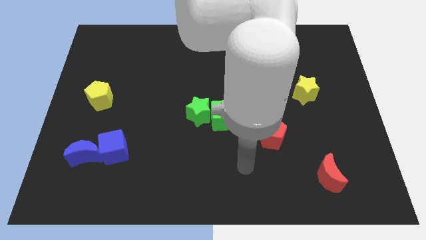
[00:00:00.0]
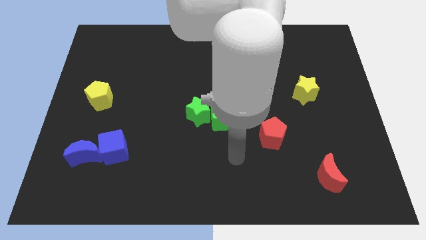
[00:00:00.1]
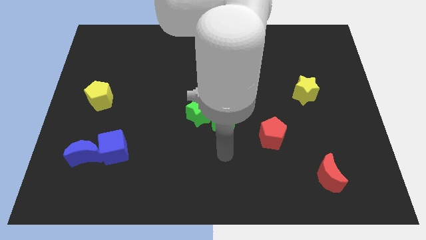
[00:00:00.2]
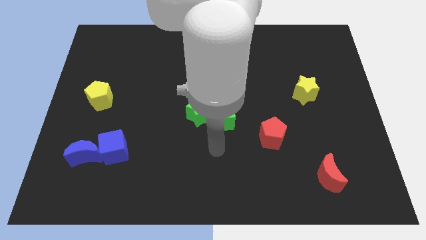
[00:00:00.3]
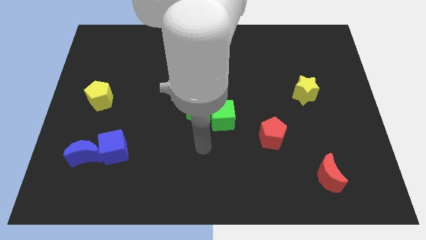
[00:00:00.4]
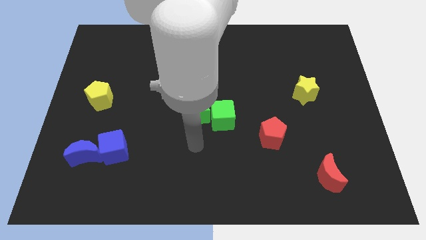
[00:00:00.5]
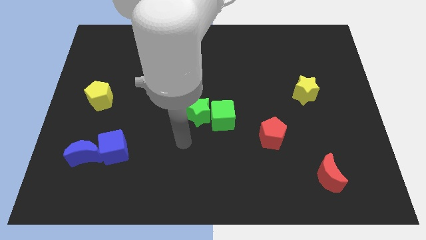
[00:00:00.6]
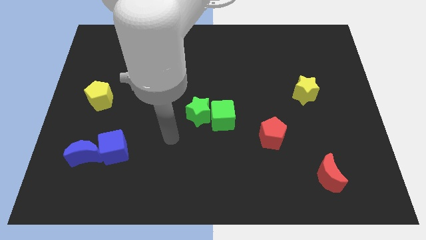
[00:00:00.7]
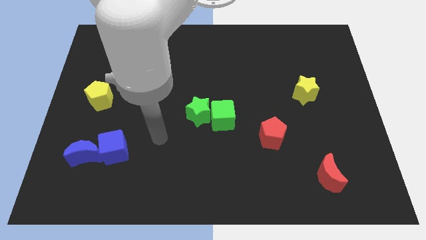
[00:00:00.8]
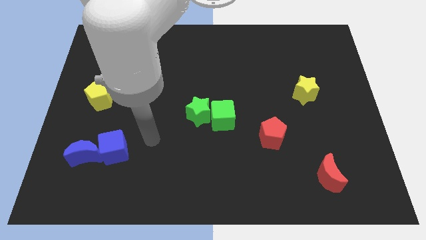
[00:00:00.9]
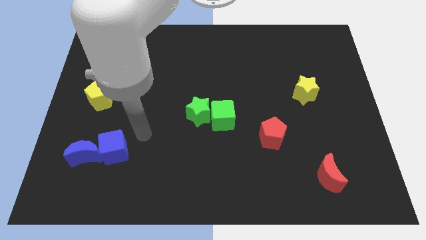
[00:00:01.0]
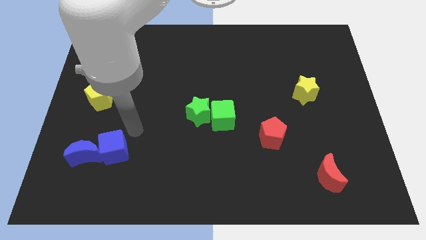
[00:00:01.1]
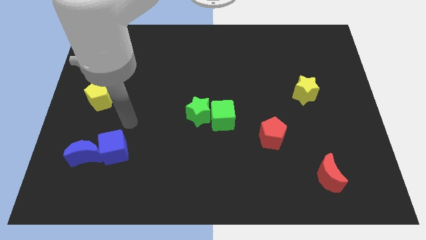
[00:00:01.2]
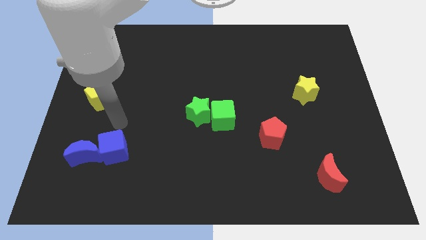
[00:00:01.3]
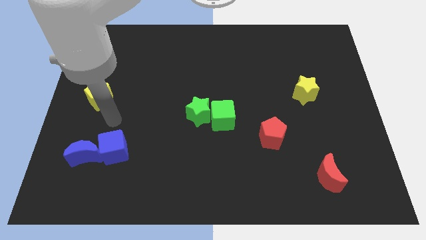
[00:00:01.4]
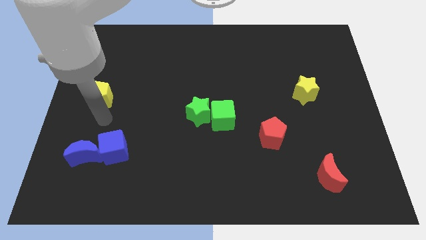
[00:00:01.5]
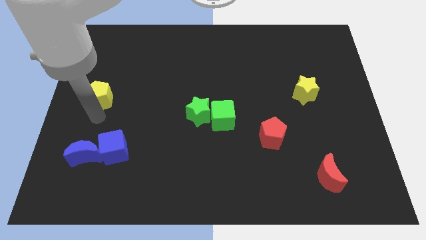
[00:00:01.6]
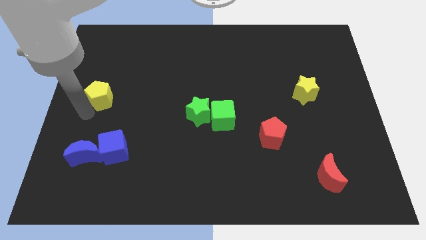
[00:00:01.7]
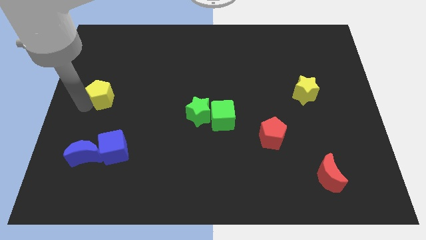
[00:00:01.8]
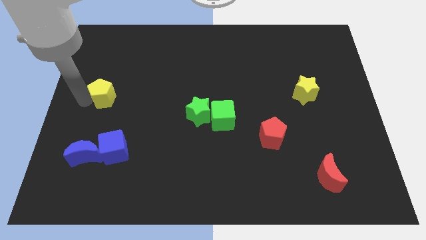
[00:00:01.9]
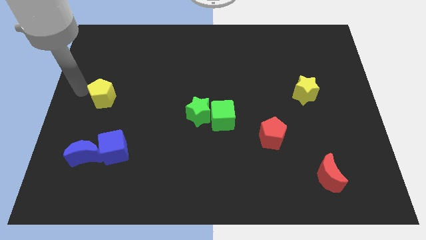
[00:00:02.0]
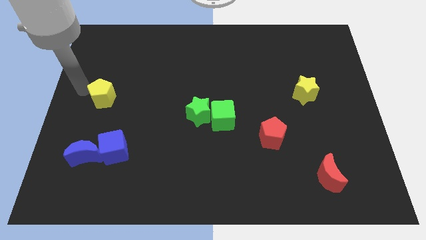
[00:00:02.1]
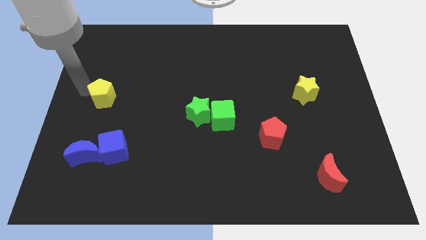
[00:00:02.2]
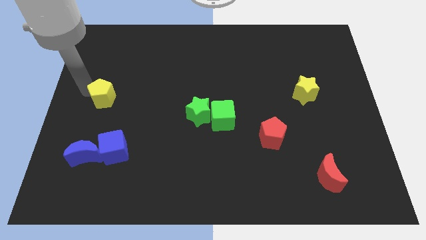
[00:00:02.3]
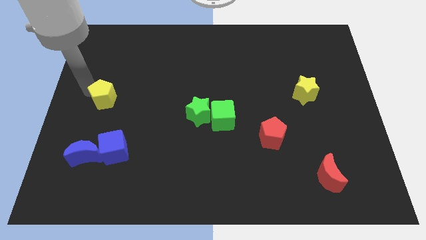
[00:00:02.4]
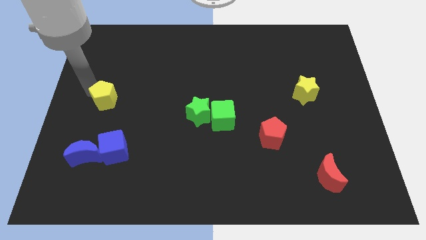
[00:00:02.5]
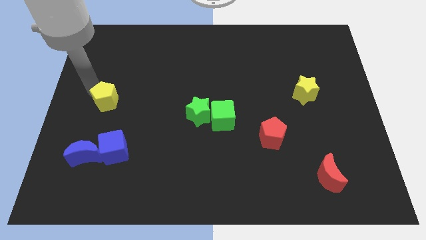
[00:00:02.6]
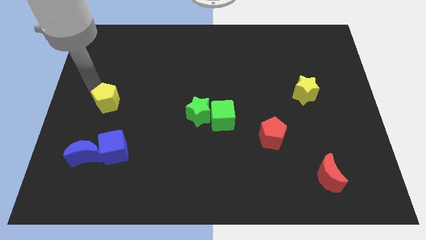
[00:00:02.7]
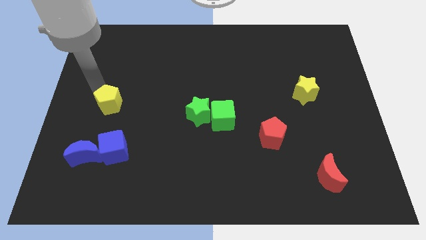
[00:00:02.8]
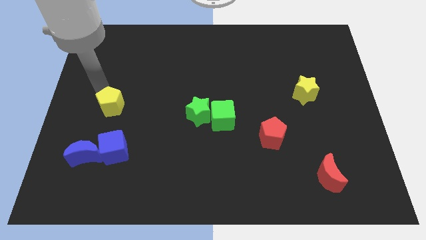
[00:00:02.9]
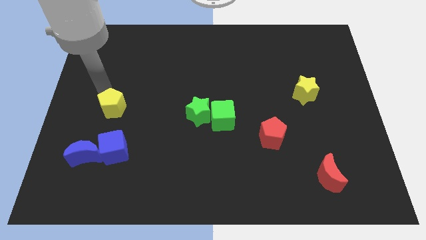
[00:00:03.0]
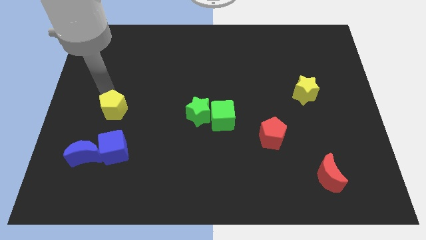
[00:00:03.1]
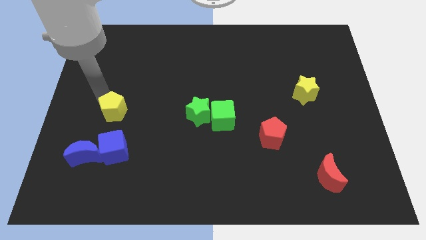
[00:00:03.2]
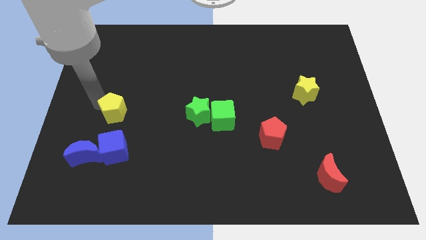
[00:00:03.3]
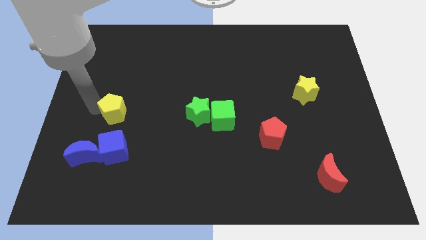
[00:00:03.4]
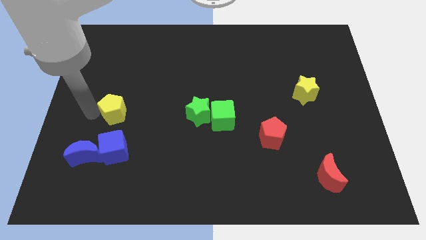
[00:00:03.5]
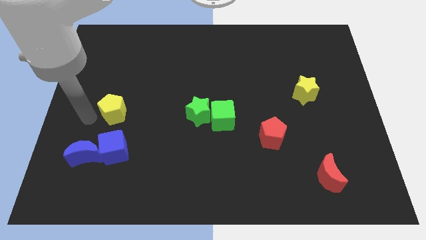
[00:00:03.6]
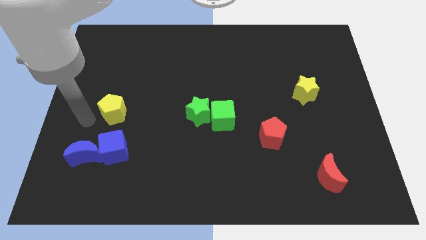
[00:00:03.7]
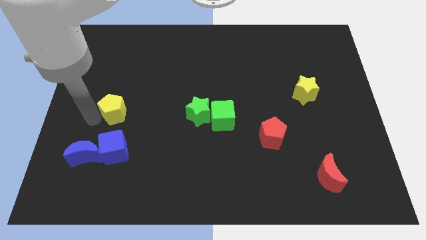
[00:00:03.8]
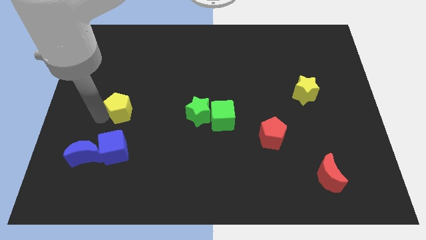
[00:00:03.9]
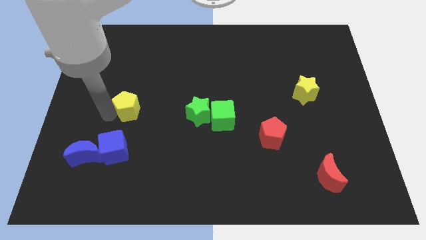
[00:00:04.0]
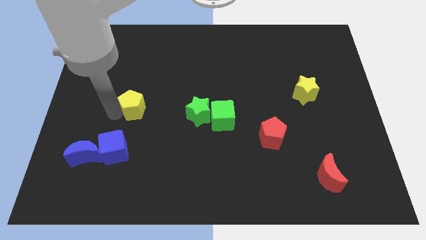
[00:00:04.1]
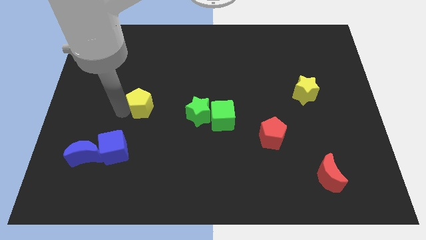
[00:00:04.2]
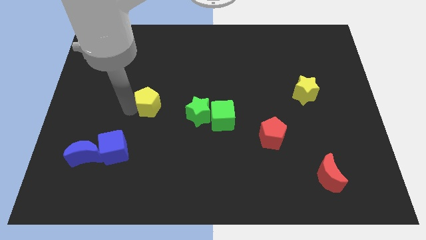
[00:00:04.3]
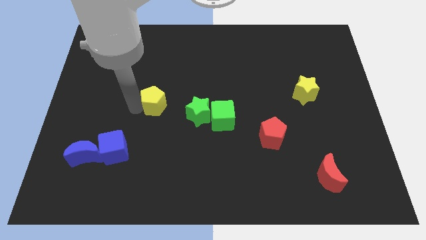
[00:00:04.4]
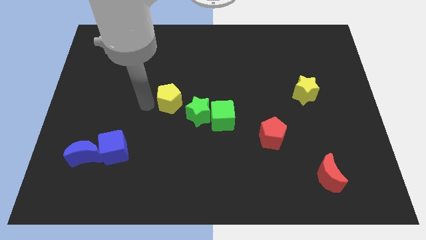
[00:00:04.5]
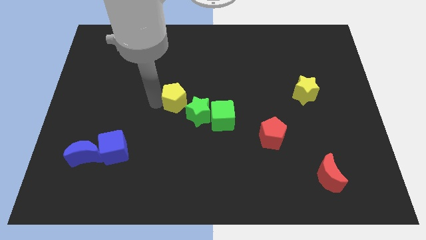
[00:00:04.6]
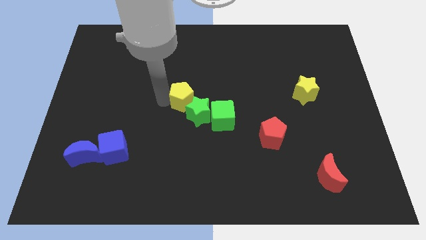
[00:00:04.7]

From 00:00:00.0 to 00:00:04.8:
move the yellow pentagon close to the green star

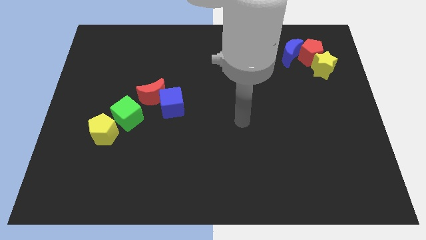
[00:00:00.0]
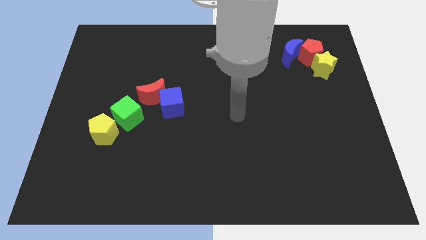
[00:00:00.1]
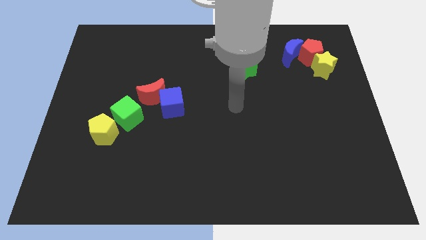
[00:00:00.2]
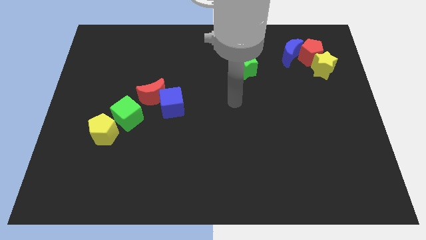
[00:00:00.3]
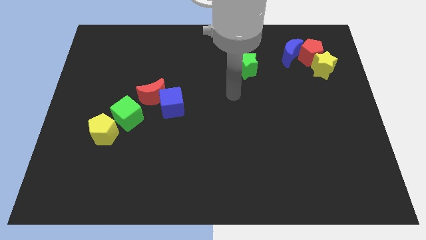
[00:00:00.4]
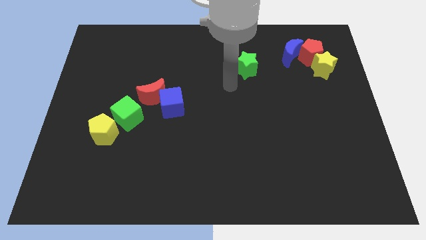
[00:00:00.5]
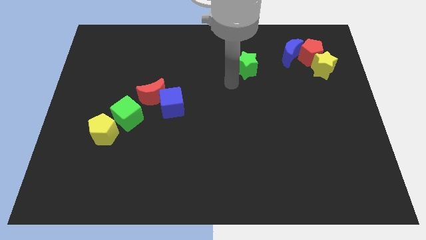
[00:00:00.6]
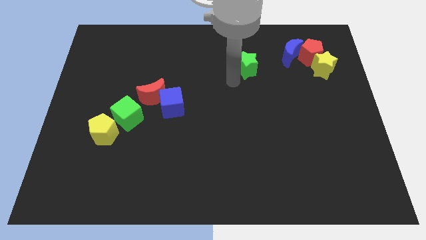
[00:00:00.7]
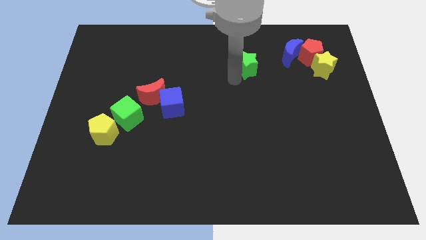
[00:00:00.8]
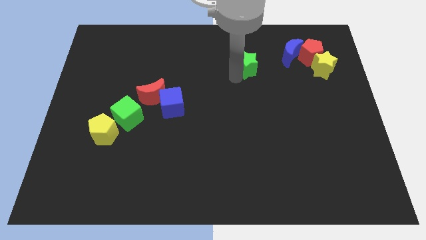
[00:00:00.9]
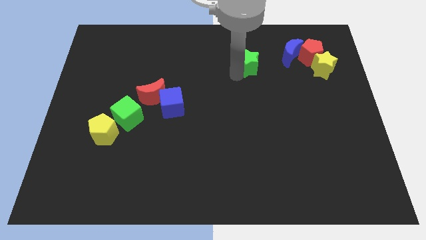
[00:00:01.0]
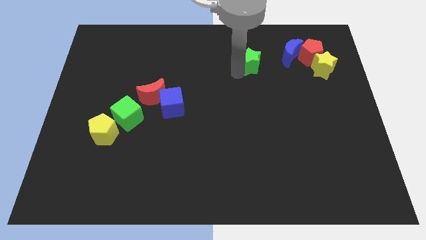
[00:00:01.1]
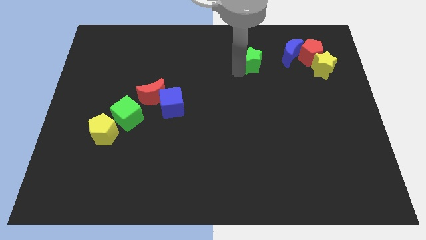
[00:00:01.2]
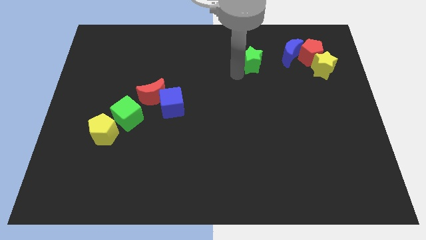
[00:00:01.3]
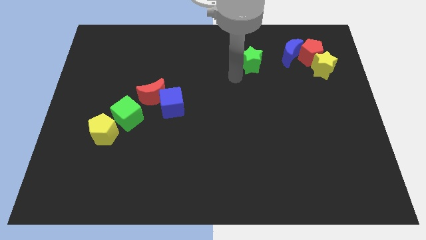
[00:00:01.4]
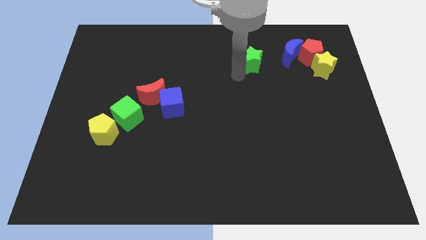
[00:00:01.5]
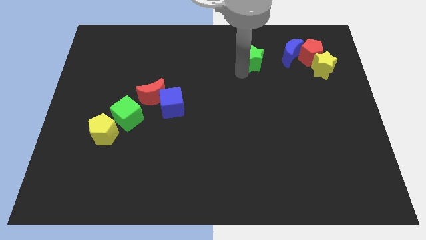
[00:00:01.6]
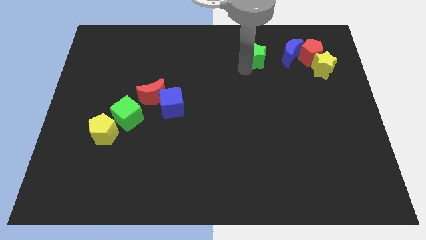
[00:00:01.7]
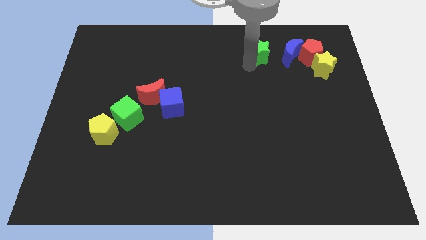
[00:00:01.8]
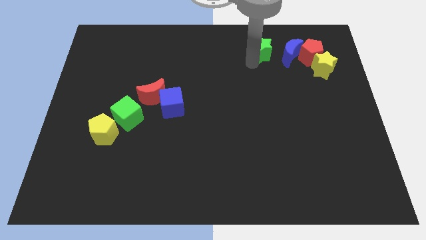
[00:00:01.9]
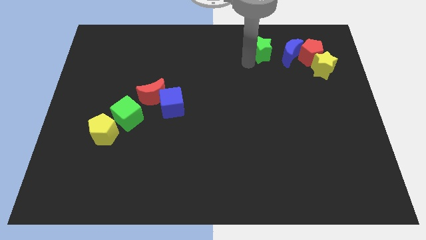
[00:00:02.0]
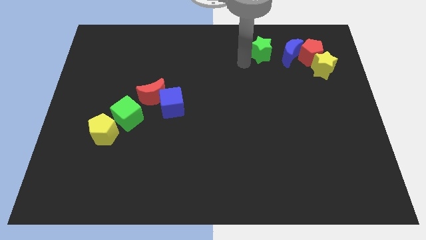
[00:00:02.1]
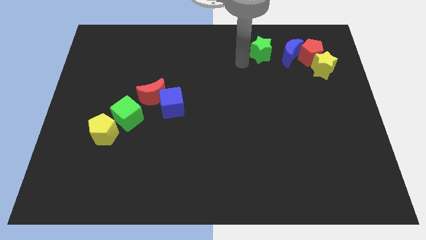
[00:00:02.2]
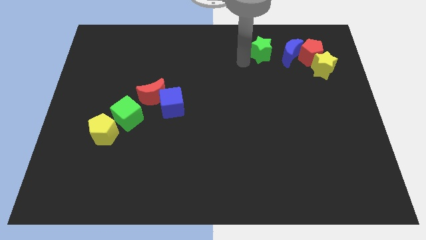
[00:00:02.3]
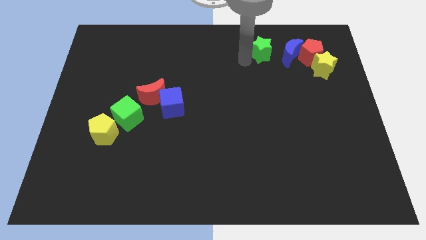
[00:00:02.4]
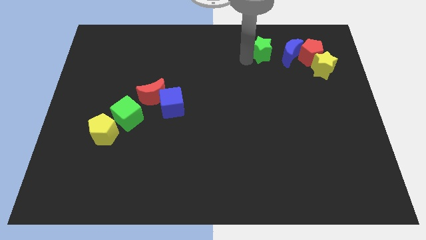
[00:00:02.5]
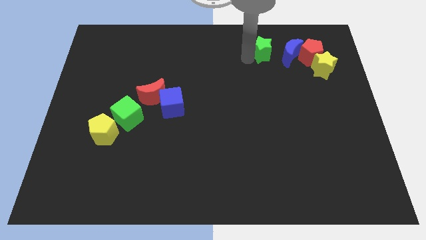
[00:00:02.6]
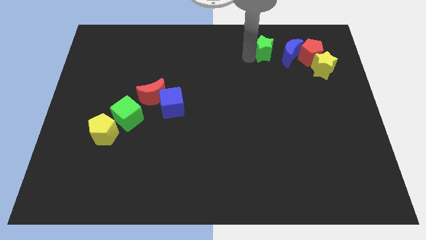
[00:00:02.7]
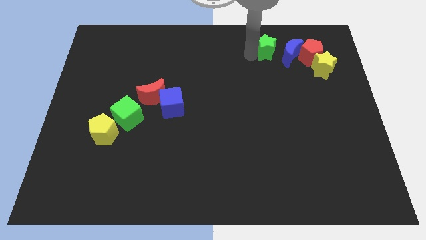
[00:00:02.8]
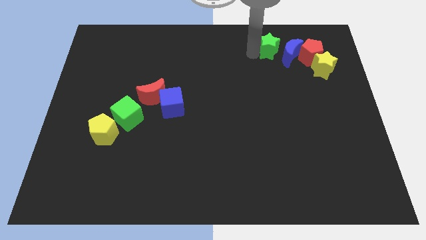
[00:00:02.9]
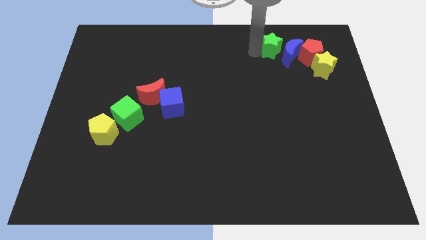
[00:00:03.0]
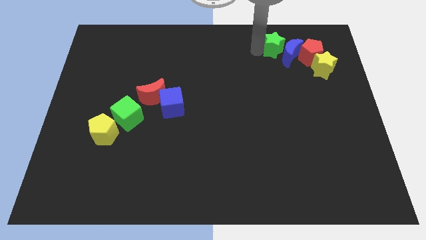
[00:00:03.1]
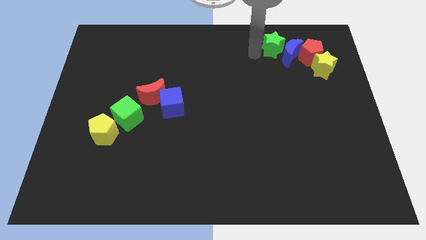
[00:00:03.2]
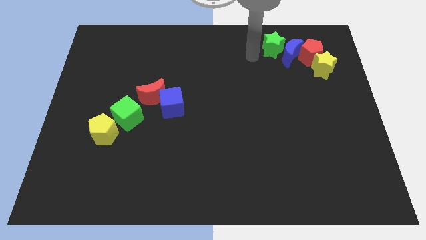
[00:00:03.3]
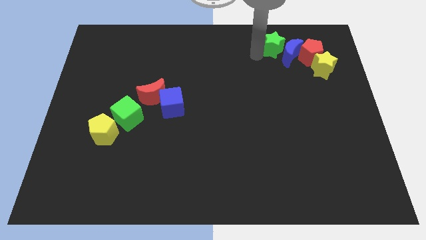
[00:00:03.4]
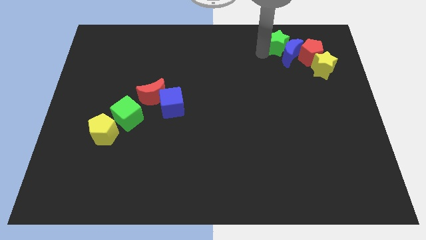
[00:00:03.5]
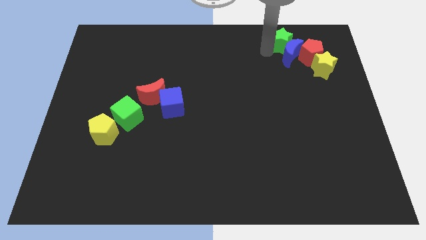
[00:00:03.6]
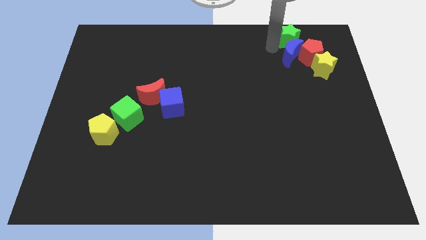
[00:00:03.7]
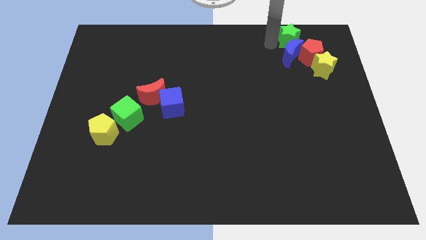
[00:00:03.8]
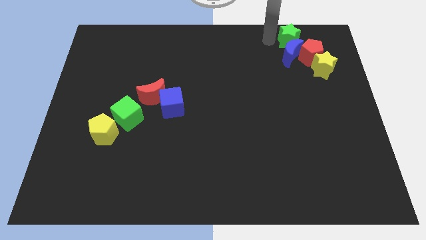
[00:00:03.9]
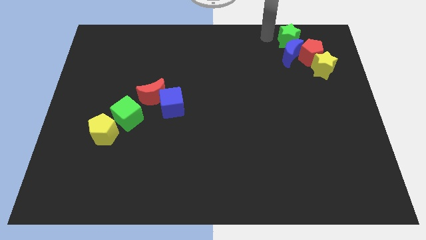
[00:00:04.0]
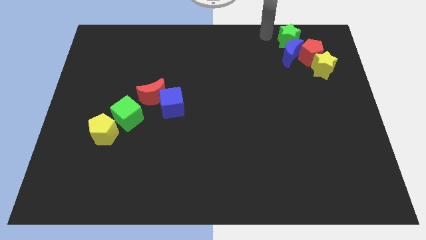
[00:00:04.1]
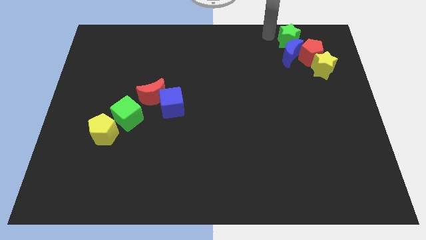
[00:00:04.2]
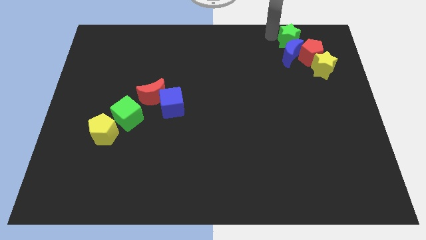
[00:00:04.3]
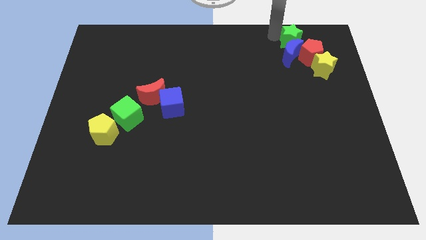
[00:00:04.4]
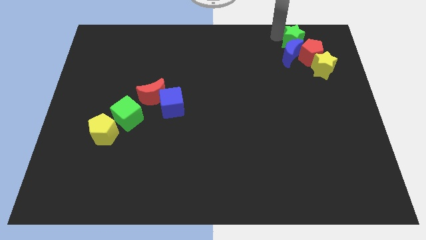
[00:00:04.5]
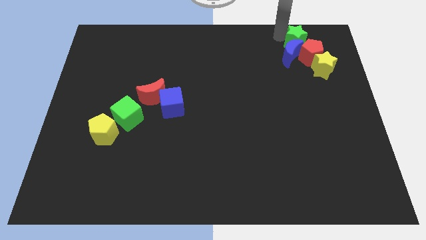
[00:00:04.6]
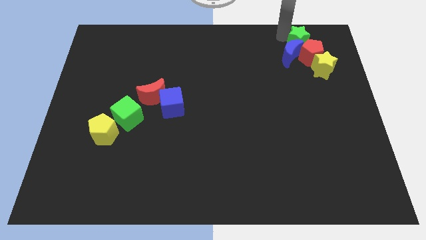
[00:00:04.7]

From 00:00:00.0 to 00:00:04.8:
slide the green star next to the red pentagon
